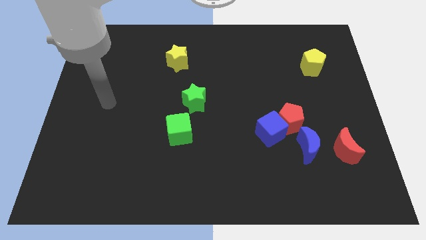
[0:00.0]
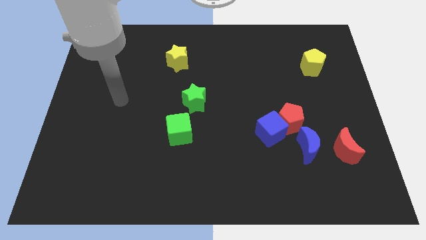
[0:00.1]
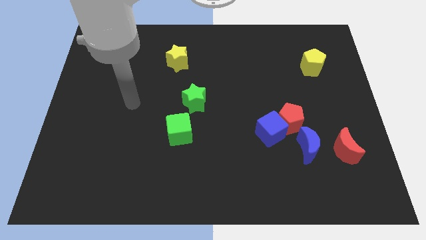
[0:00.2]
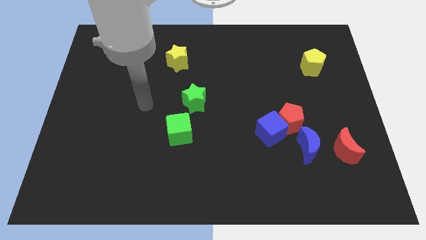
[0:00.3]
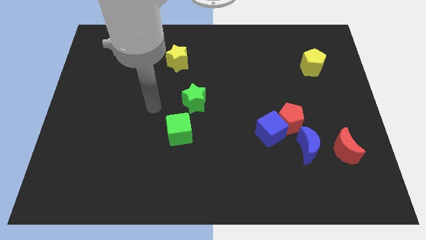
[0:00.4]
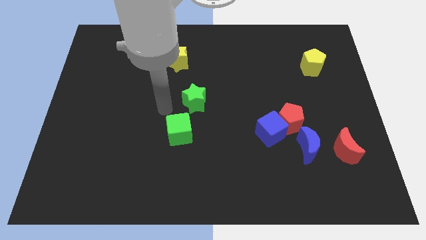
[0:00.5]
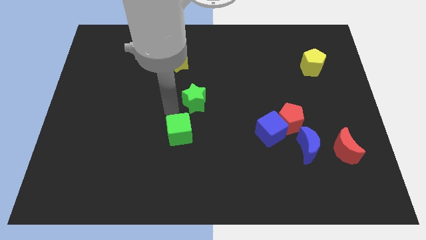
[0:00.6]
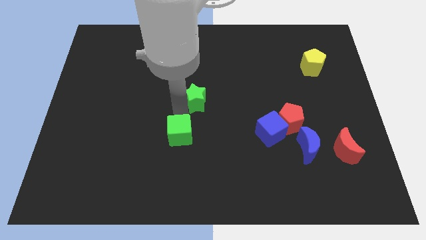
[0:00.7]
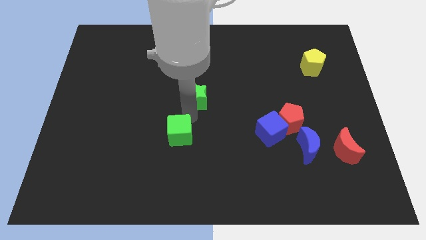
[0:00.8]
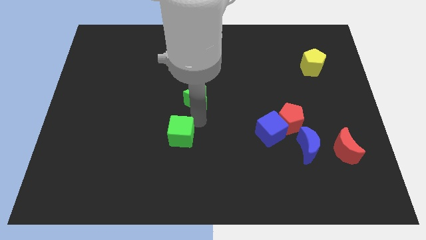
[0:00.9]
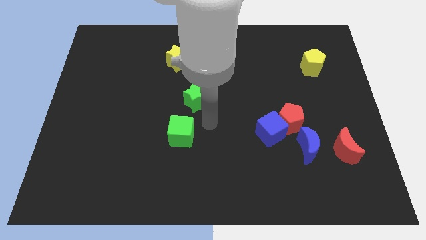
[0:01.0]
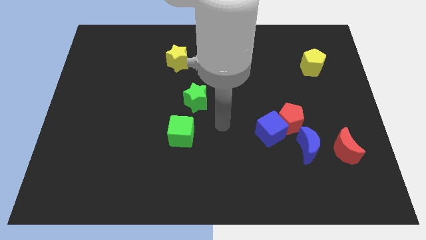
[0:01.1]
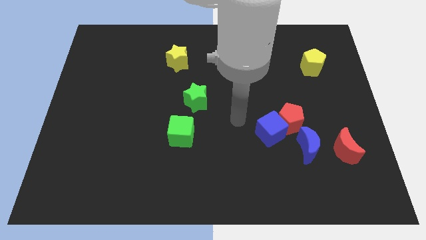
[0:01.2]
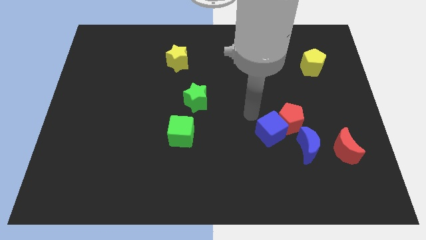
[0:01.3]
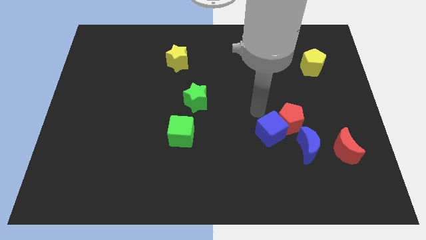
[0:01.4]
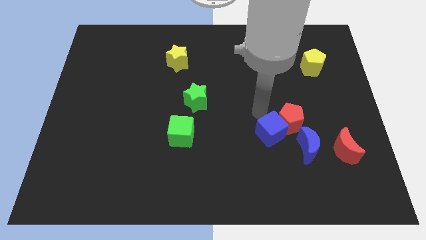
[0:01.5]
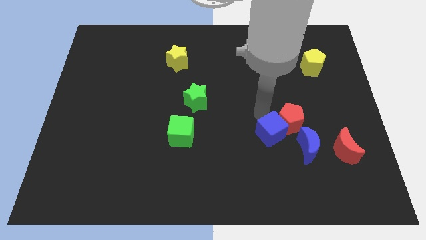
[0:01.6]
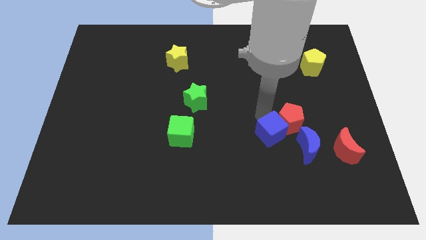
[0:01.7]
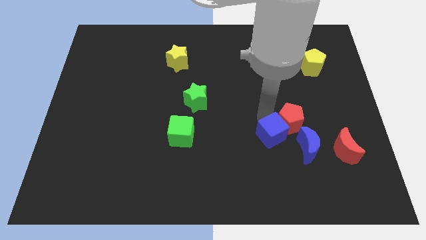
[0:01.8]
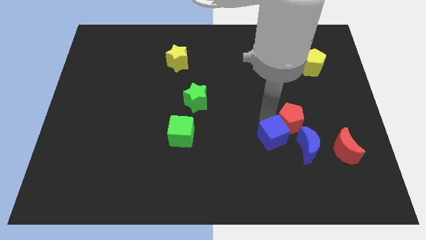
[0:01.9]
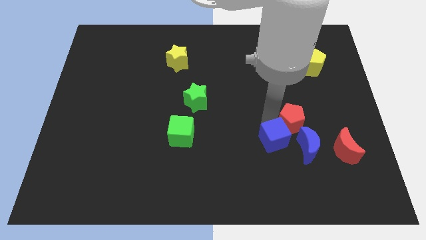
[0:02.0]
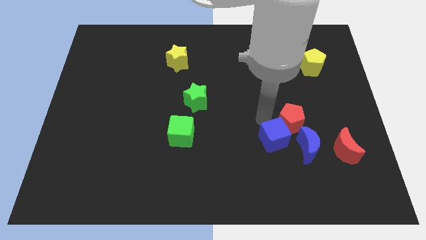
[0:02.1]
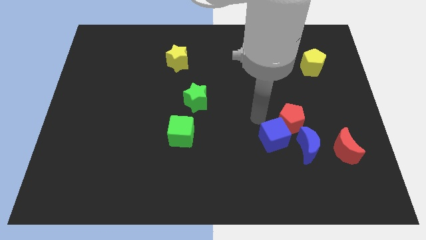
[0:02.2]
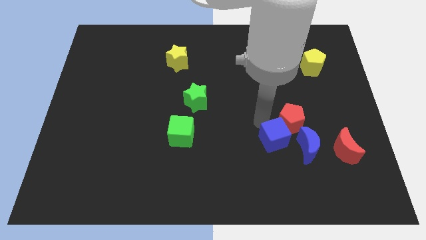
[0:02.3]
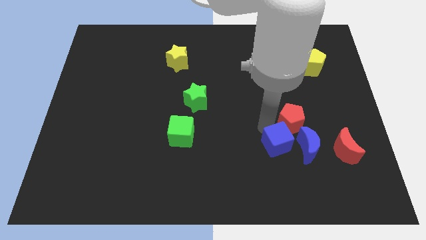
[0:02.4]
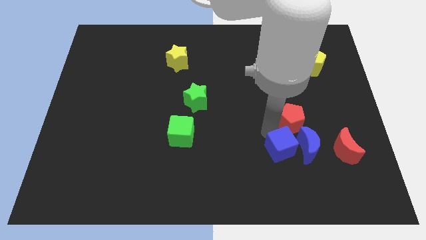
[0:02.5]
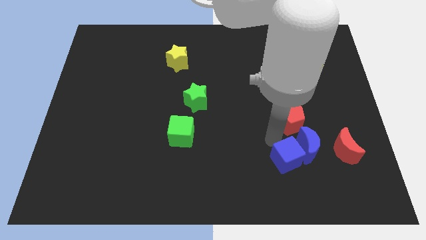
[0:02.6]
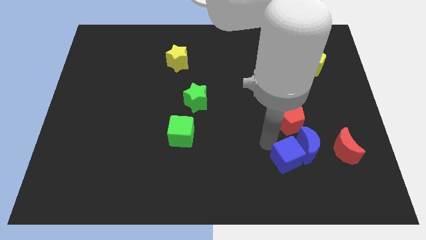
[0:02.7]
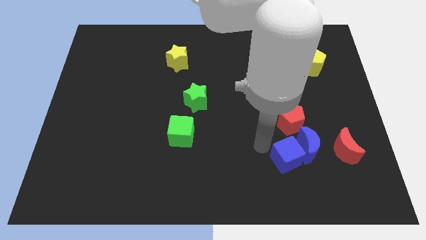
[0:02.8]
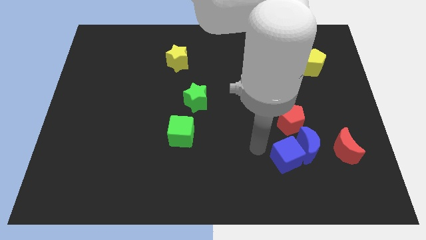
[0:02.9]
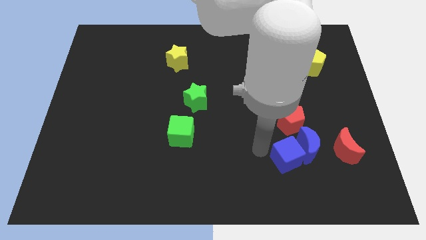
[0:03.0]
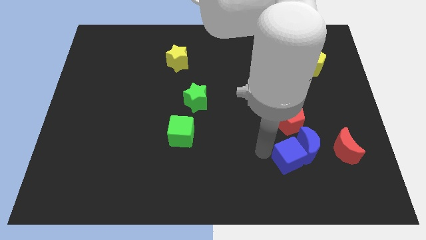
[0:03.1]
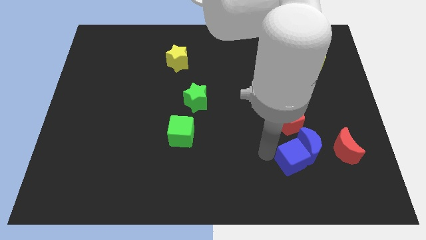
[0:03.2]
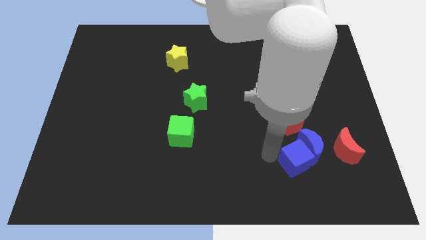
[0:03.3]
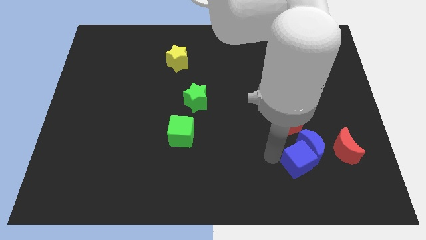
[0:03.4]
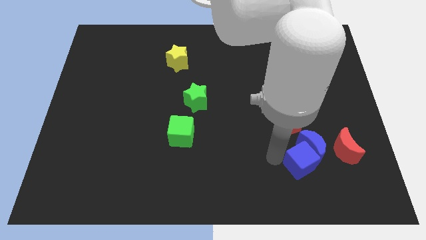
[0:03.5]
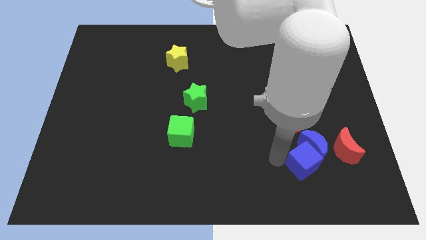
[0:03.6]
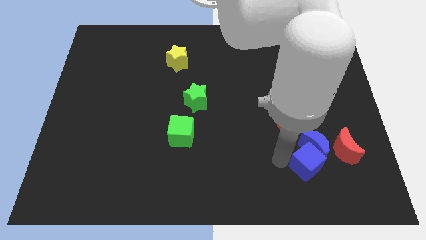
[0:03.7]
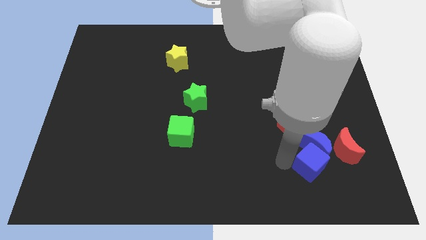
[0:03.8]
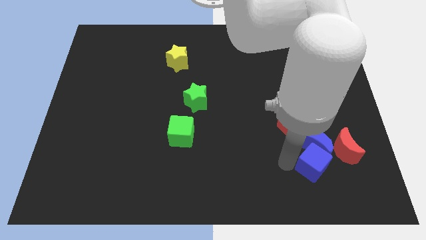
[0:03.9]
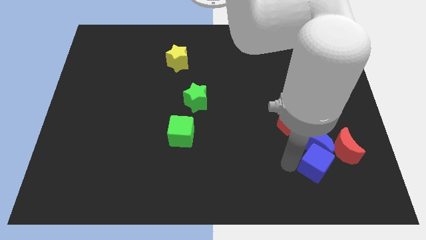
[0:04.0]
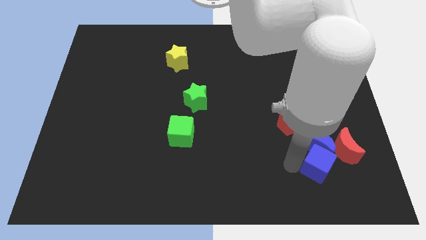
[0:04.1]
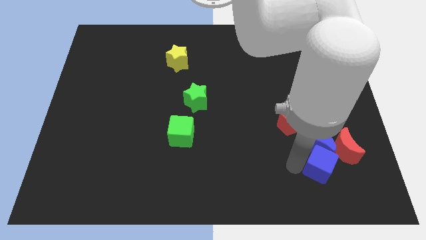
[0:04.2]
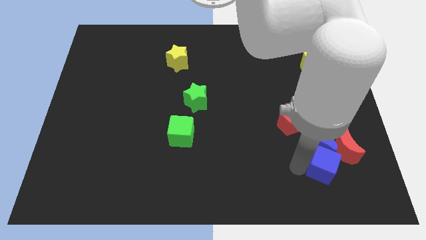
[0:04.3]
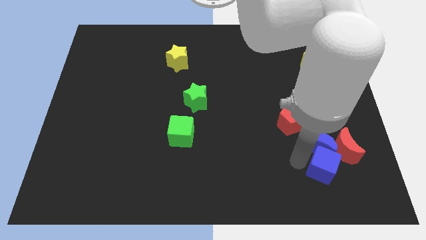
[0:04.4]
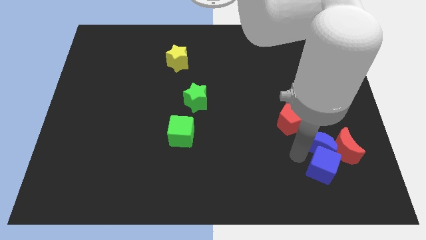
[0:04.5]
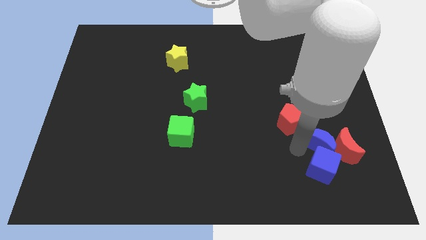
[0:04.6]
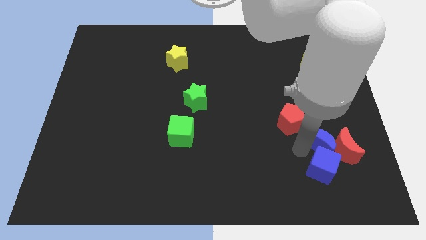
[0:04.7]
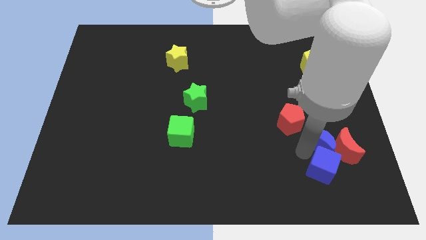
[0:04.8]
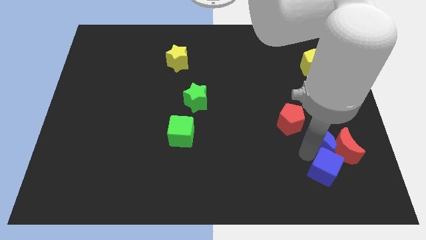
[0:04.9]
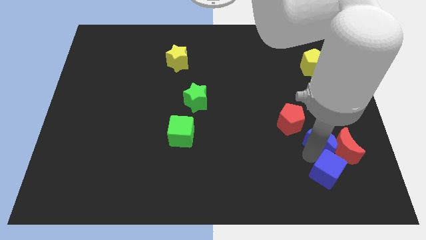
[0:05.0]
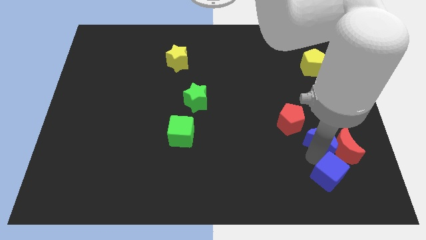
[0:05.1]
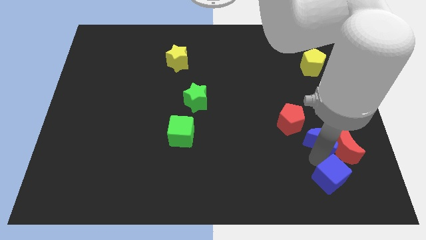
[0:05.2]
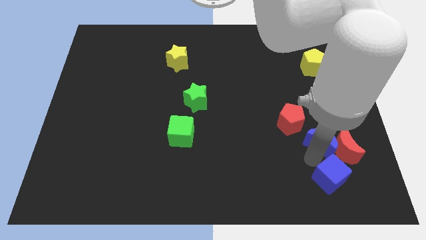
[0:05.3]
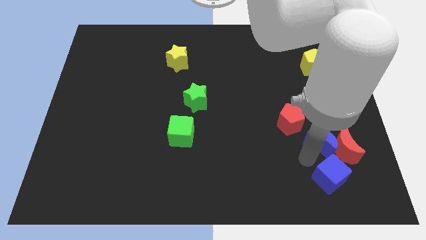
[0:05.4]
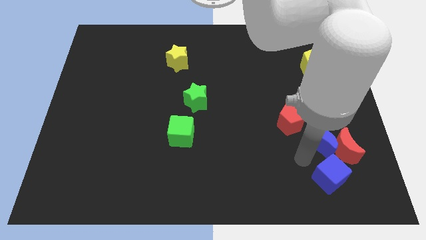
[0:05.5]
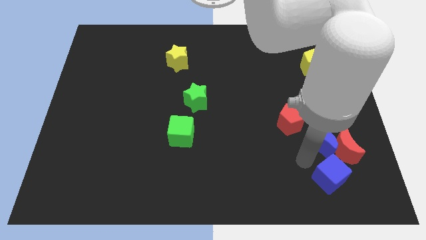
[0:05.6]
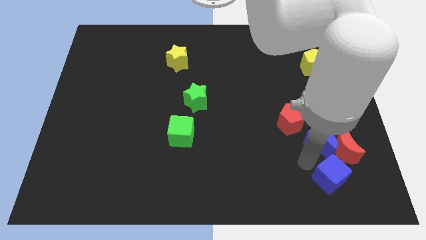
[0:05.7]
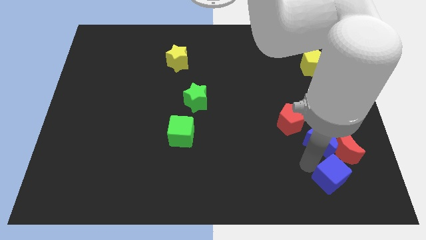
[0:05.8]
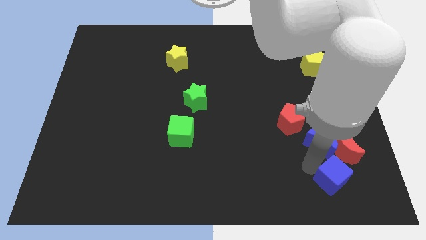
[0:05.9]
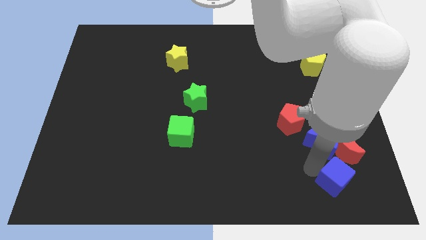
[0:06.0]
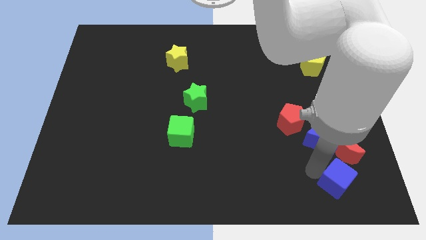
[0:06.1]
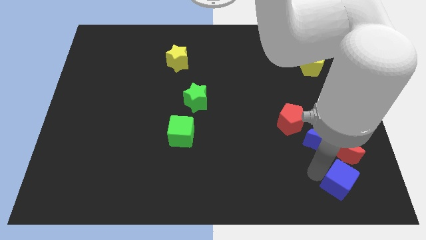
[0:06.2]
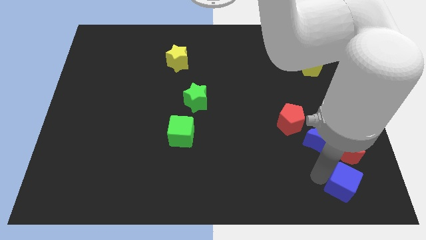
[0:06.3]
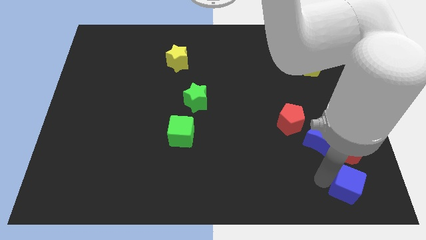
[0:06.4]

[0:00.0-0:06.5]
put the blue cube to the lower right corner
